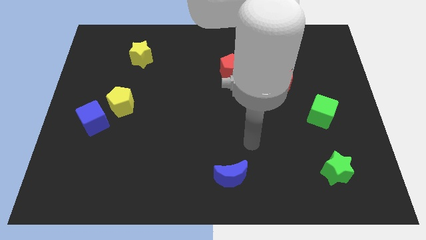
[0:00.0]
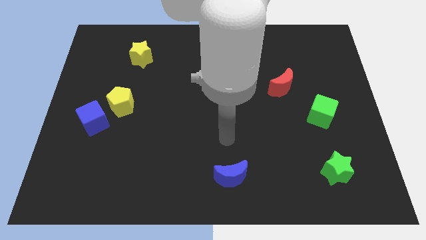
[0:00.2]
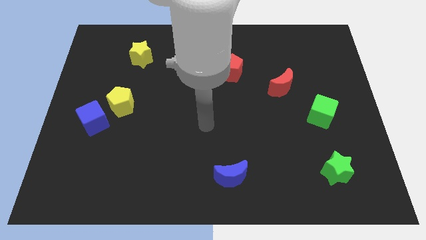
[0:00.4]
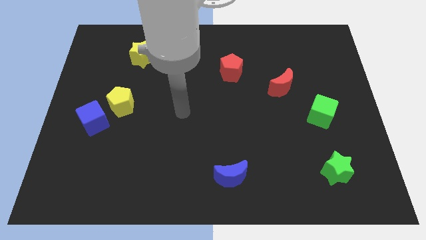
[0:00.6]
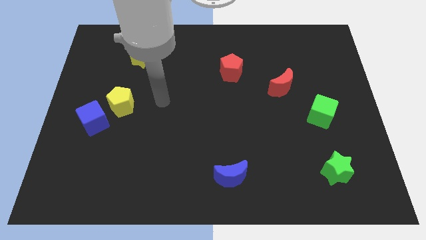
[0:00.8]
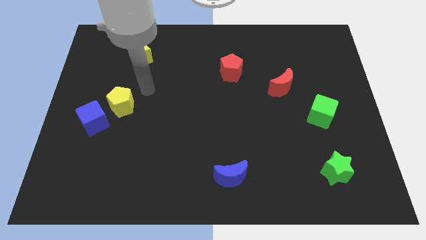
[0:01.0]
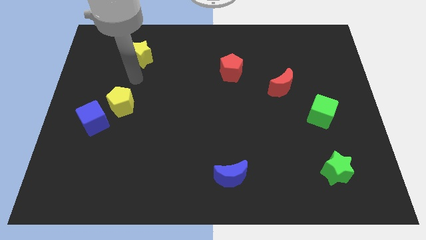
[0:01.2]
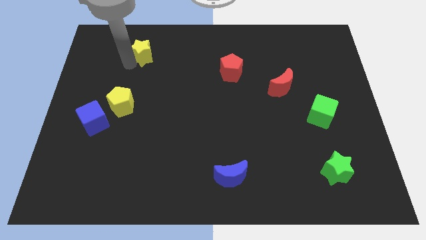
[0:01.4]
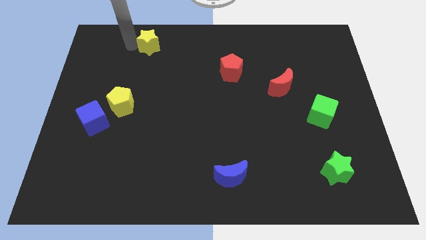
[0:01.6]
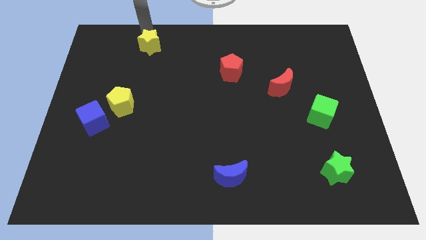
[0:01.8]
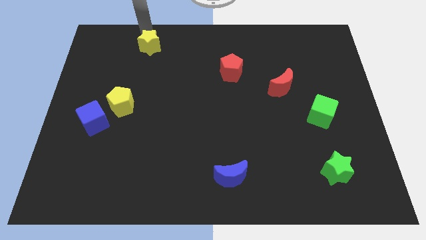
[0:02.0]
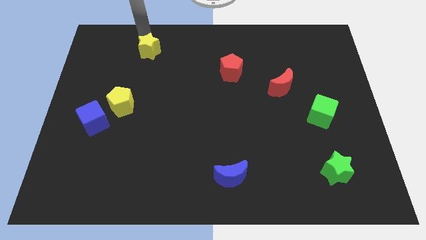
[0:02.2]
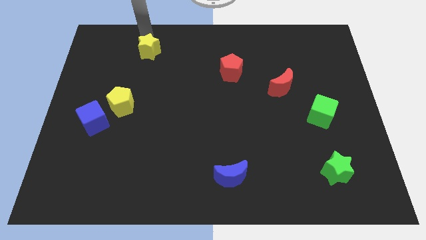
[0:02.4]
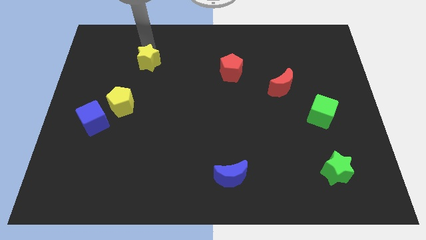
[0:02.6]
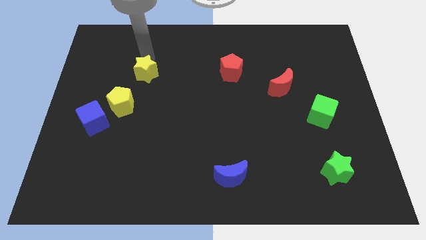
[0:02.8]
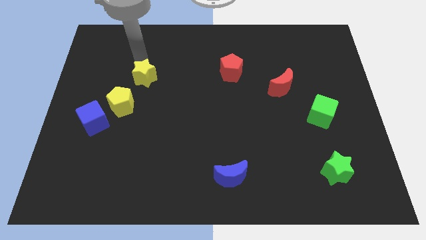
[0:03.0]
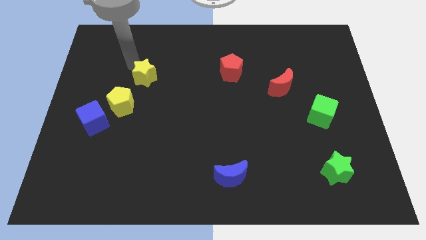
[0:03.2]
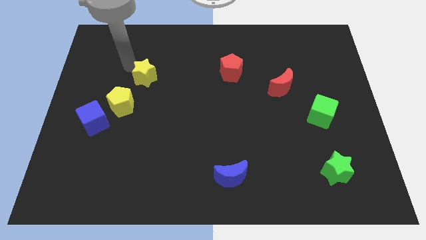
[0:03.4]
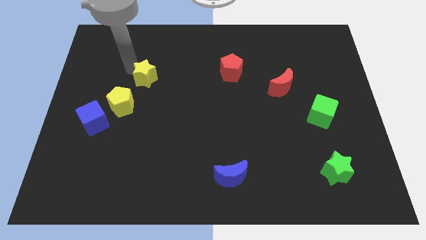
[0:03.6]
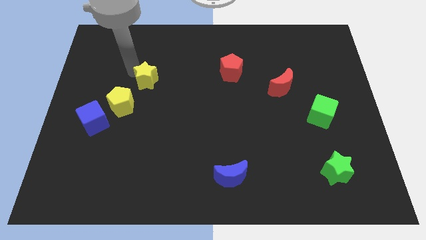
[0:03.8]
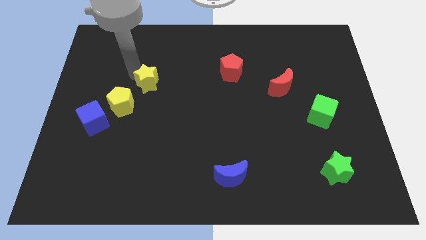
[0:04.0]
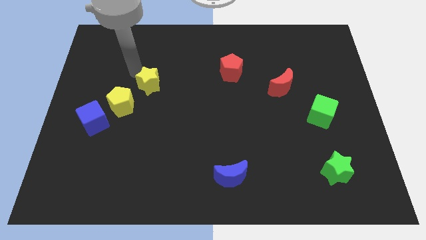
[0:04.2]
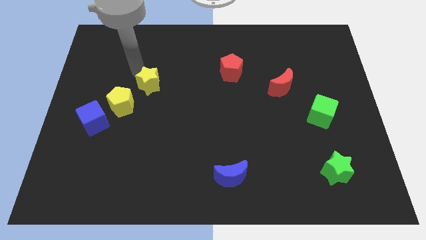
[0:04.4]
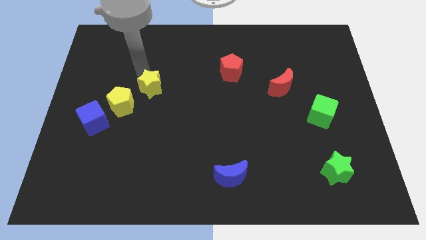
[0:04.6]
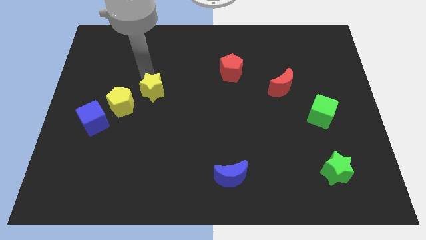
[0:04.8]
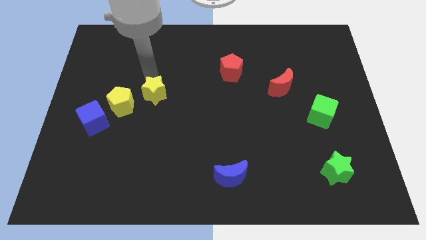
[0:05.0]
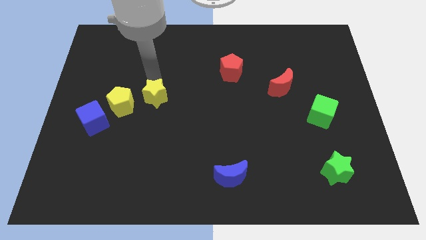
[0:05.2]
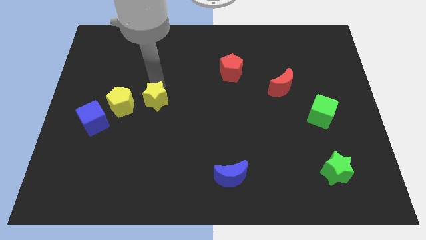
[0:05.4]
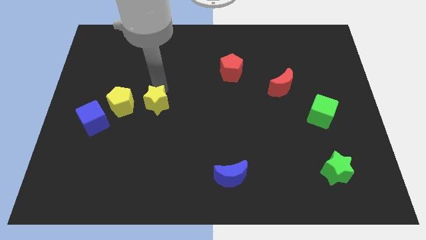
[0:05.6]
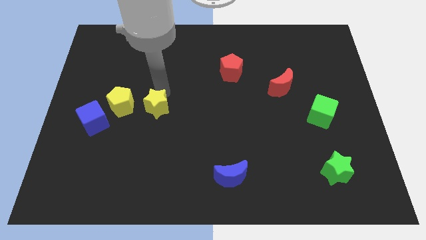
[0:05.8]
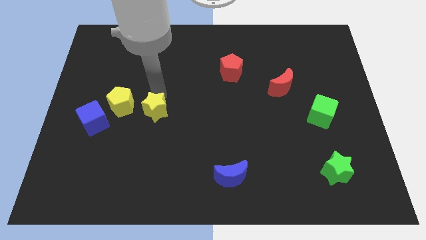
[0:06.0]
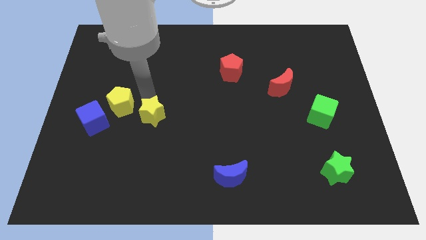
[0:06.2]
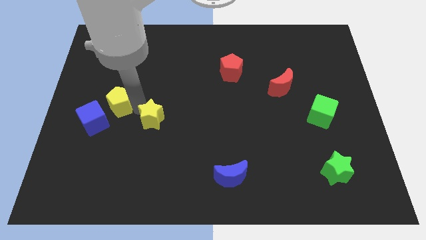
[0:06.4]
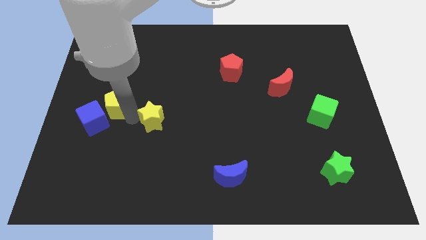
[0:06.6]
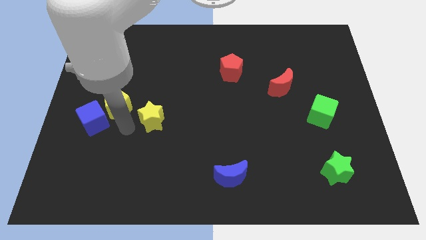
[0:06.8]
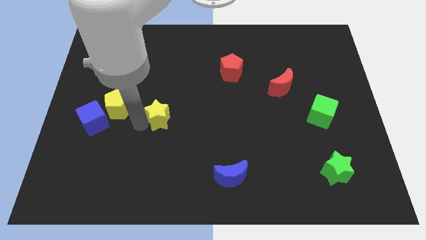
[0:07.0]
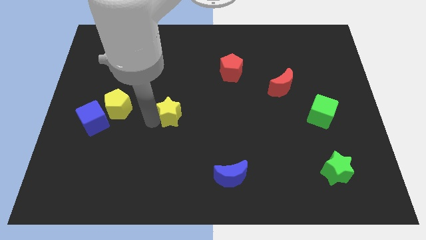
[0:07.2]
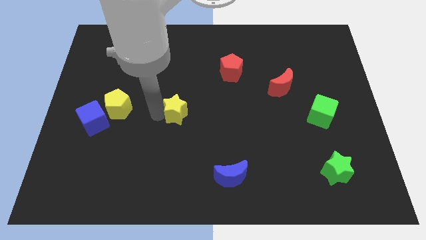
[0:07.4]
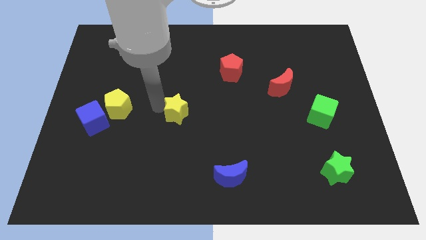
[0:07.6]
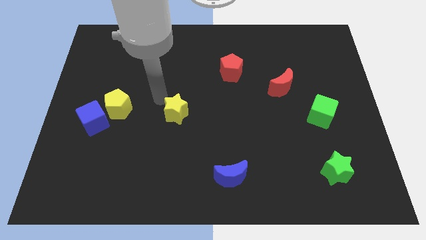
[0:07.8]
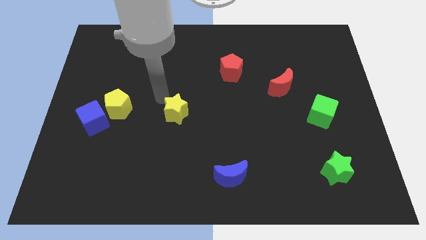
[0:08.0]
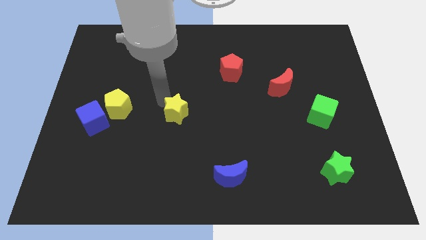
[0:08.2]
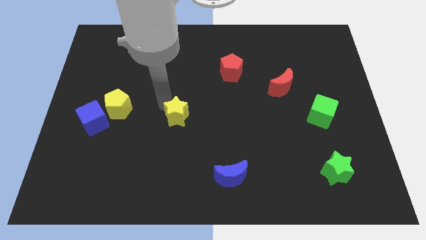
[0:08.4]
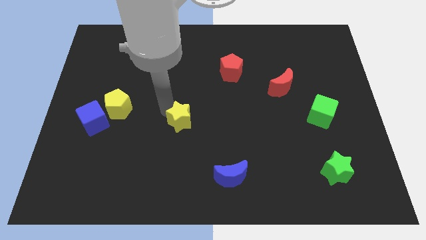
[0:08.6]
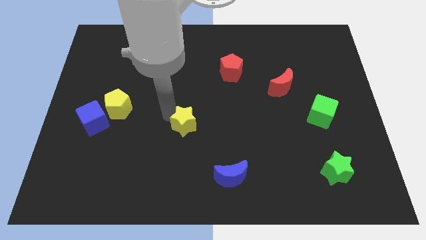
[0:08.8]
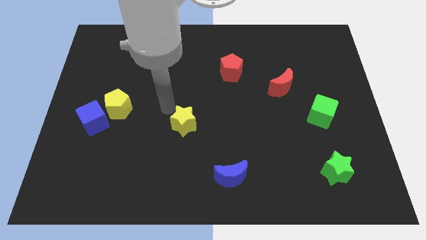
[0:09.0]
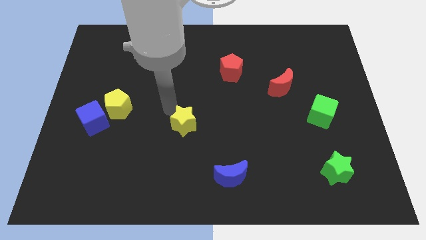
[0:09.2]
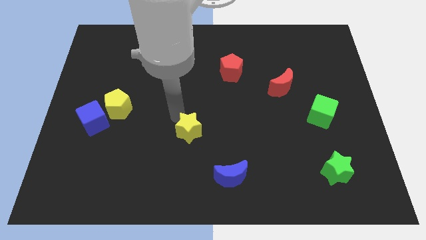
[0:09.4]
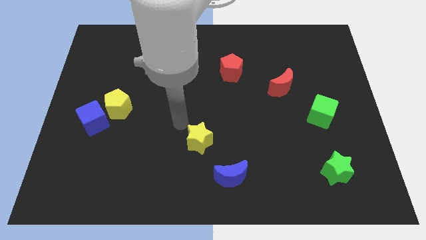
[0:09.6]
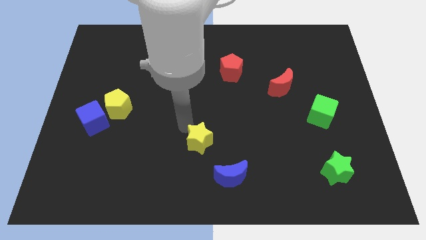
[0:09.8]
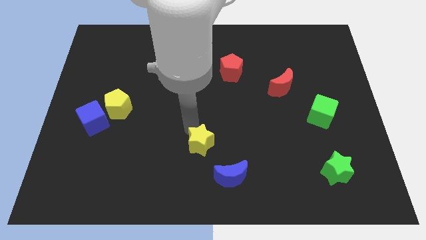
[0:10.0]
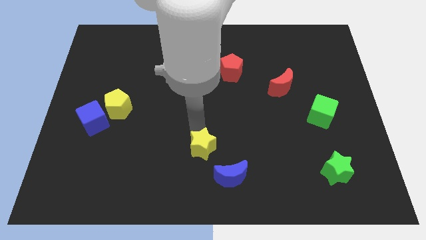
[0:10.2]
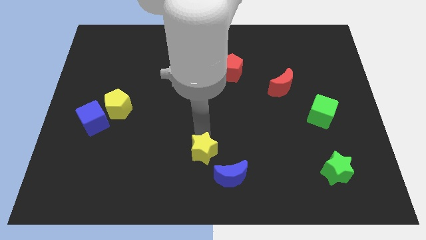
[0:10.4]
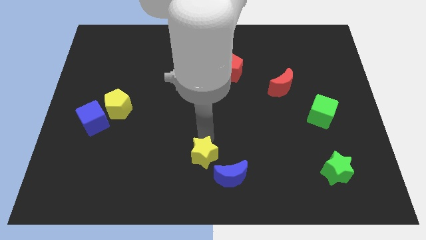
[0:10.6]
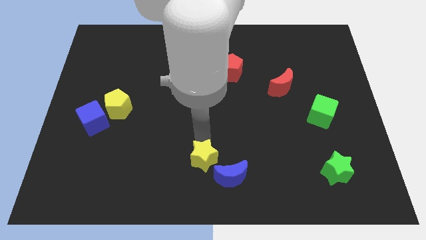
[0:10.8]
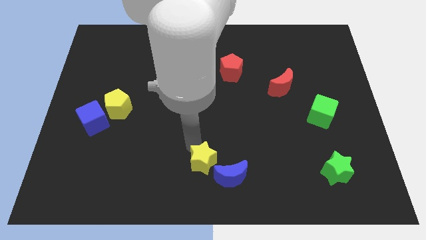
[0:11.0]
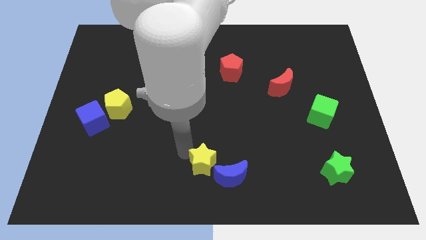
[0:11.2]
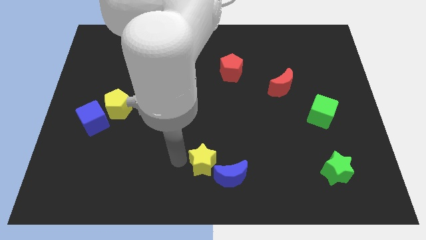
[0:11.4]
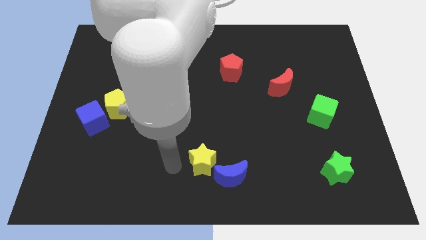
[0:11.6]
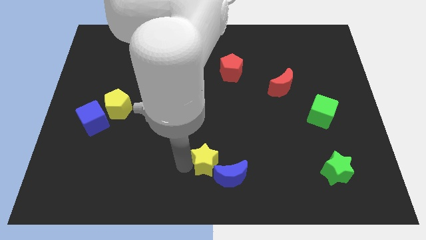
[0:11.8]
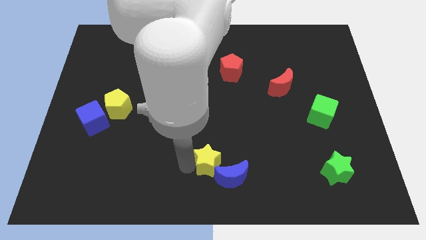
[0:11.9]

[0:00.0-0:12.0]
move the yellow star to the blue moon

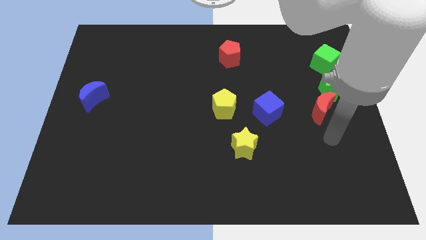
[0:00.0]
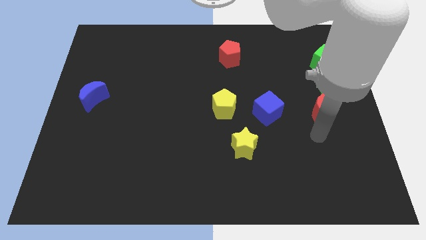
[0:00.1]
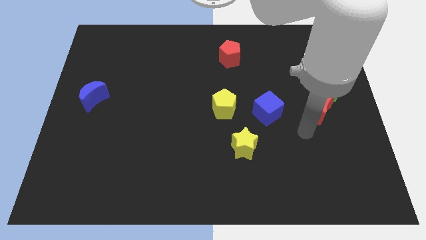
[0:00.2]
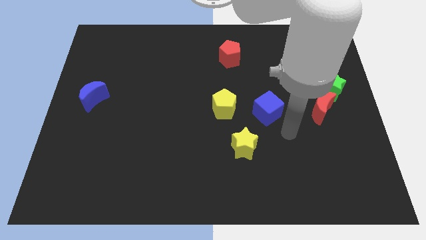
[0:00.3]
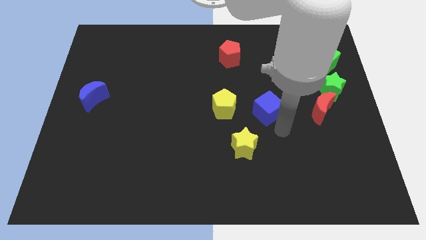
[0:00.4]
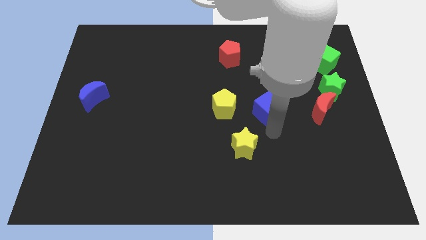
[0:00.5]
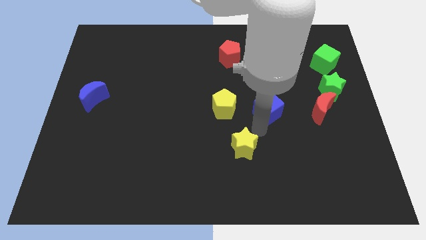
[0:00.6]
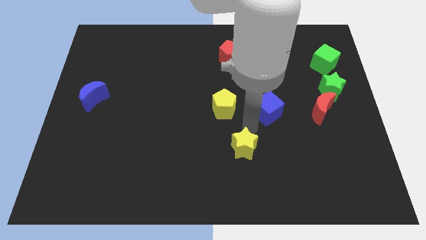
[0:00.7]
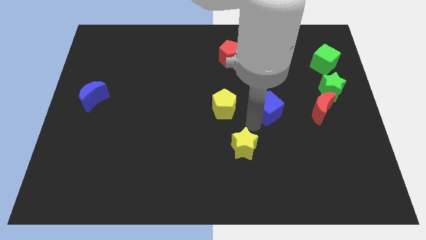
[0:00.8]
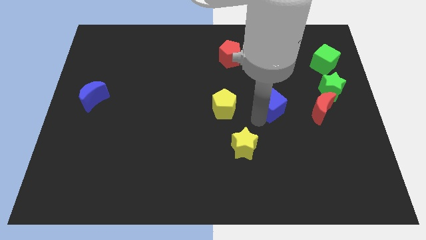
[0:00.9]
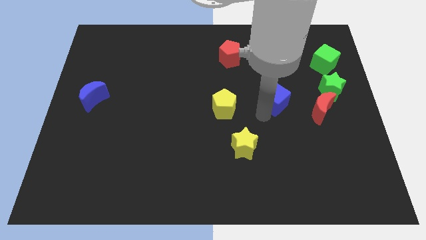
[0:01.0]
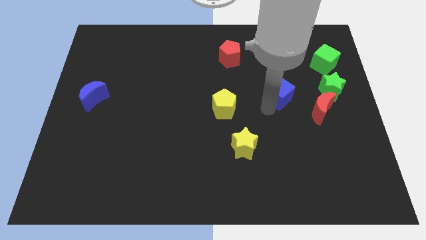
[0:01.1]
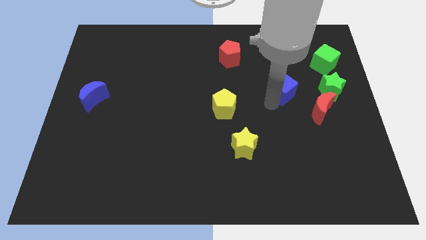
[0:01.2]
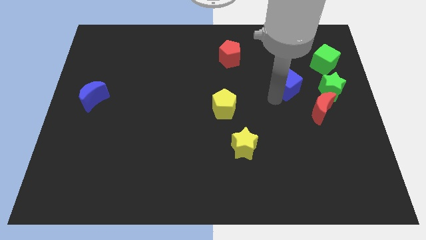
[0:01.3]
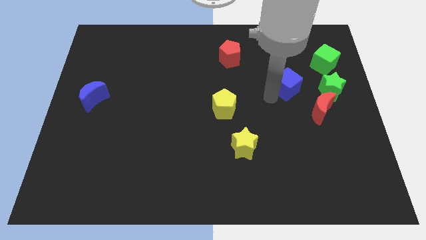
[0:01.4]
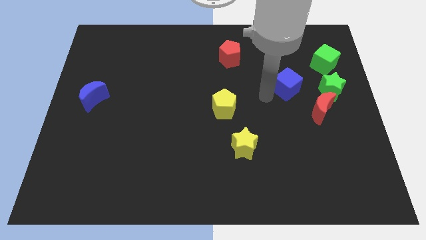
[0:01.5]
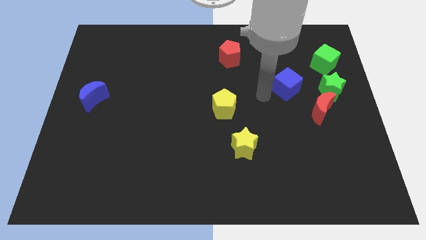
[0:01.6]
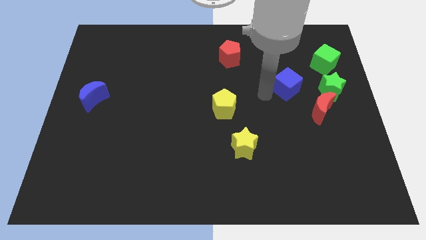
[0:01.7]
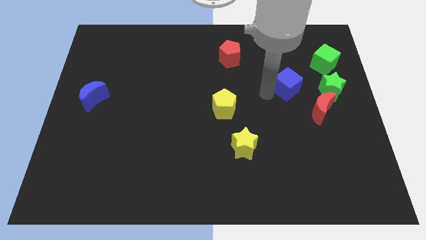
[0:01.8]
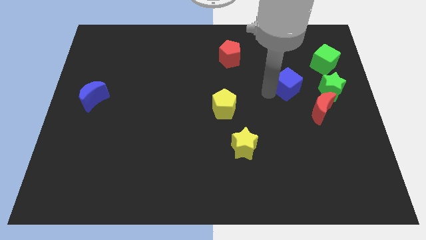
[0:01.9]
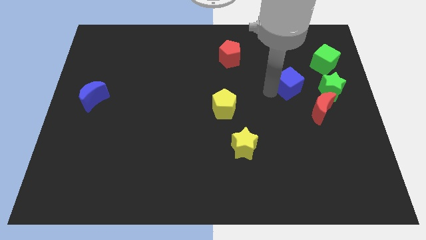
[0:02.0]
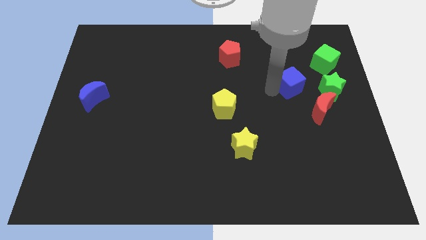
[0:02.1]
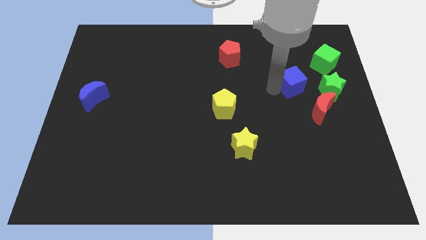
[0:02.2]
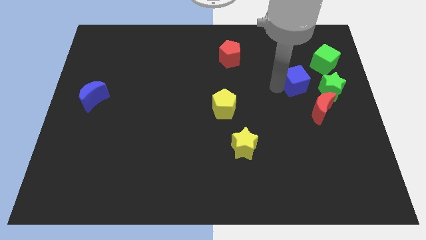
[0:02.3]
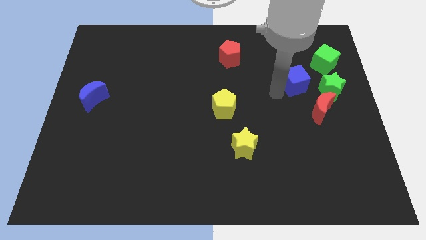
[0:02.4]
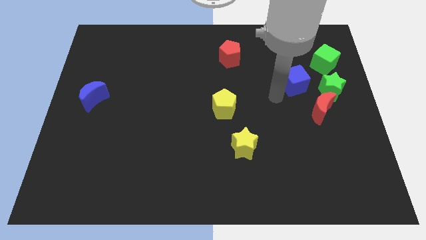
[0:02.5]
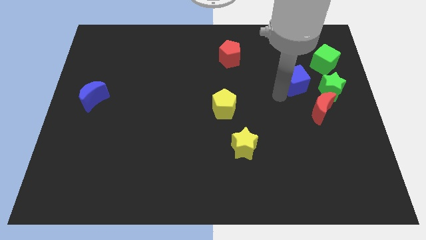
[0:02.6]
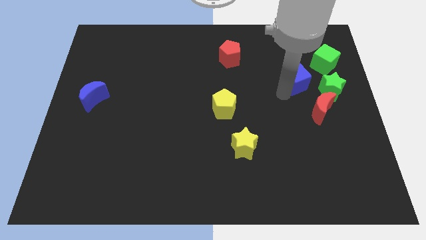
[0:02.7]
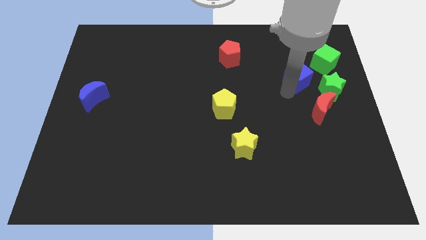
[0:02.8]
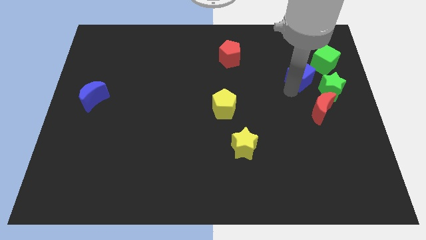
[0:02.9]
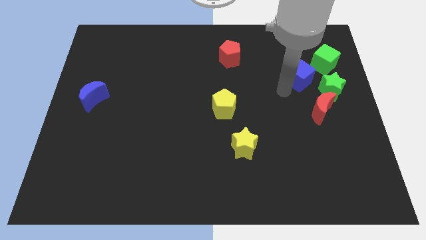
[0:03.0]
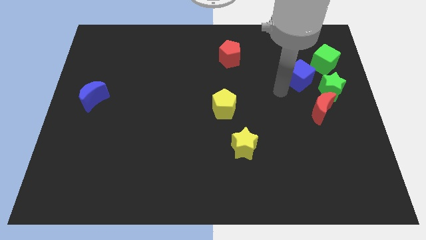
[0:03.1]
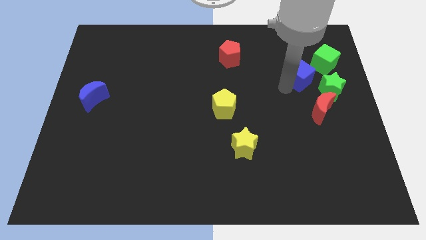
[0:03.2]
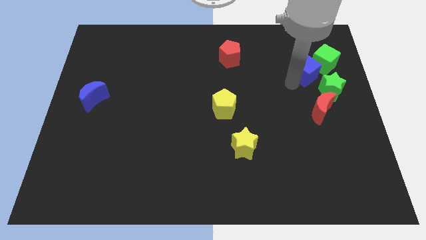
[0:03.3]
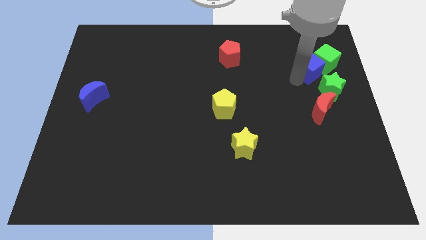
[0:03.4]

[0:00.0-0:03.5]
push the blue cube close to the green cube
